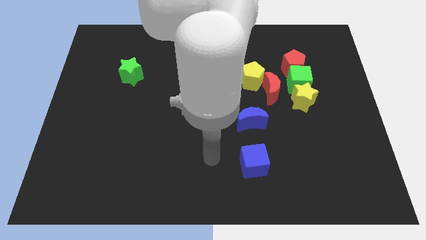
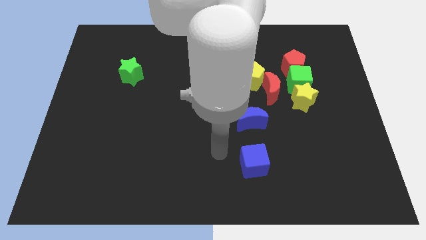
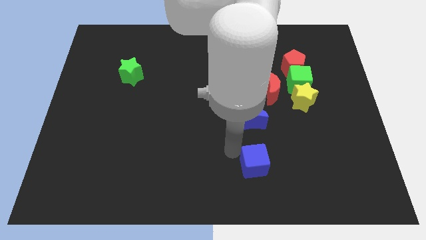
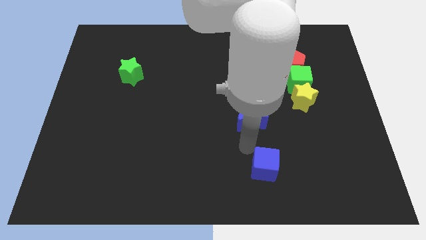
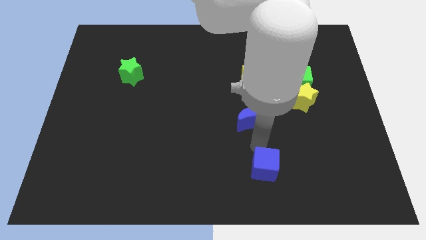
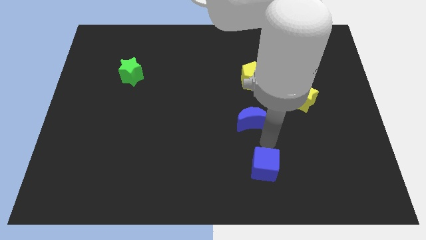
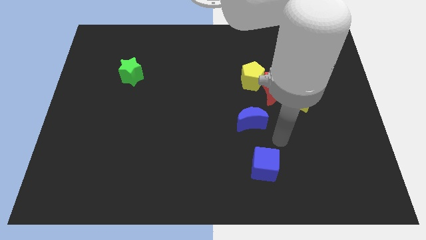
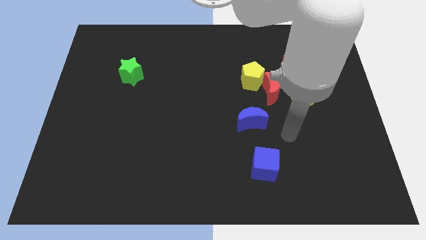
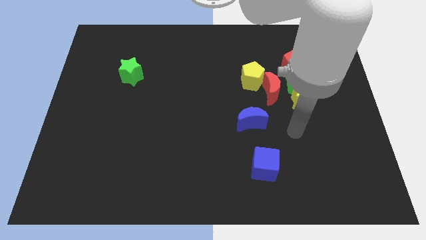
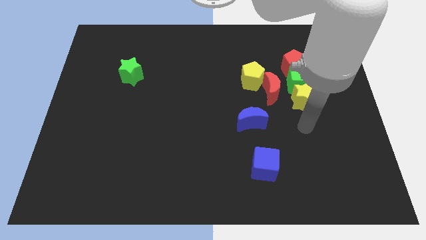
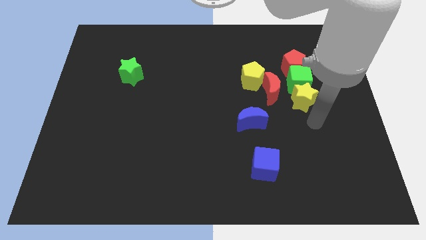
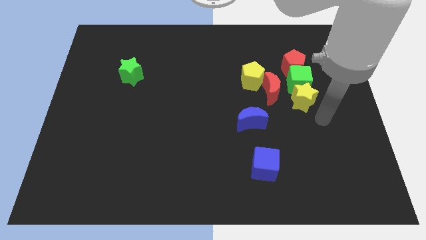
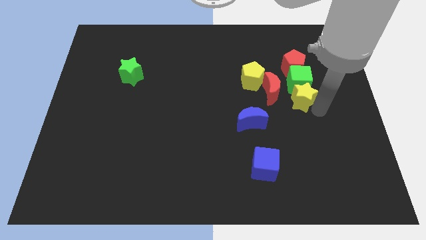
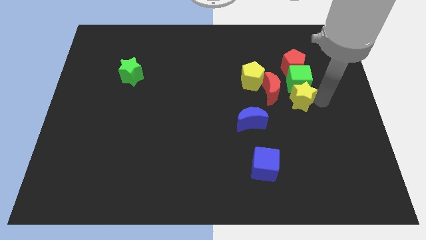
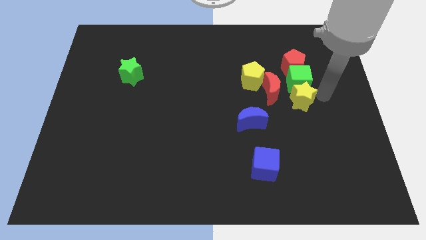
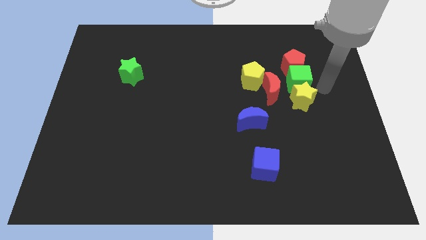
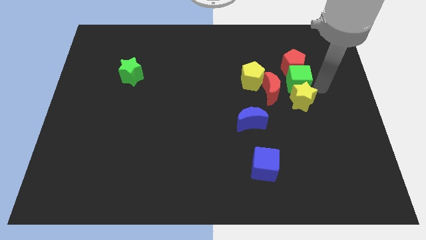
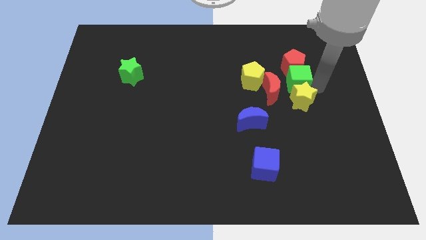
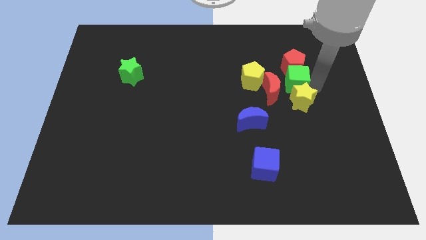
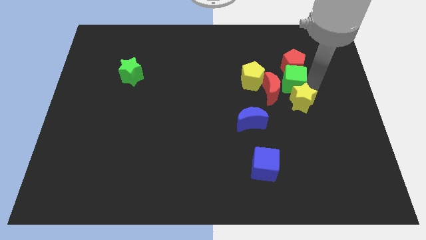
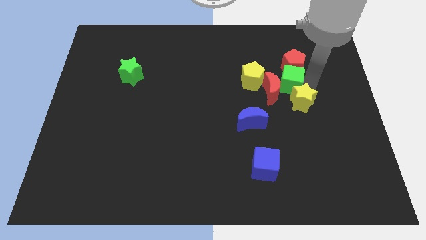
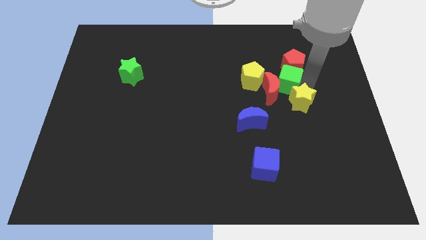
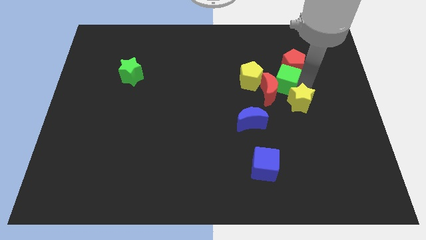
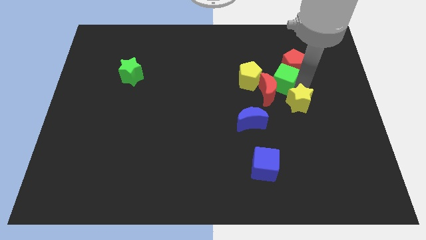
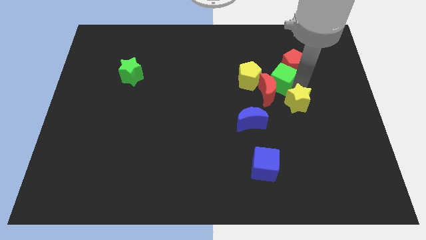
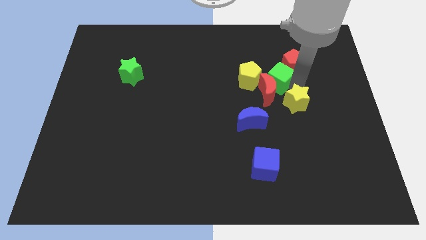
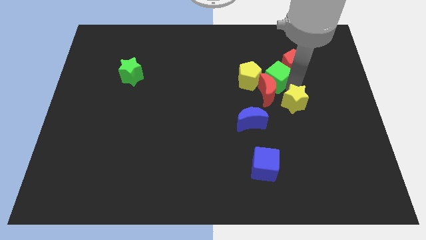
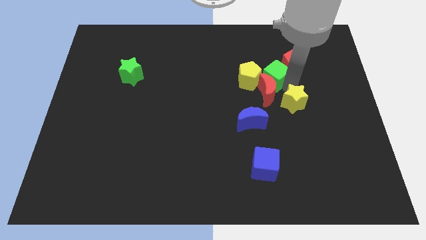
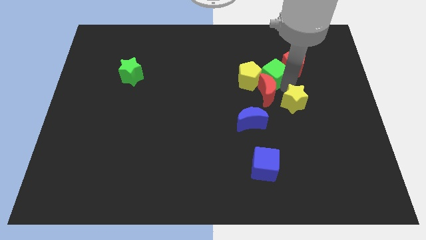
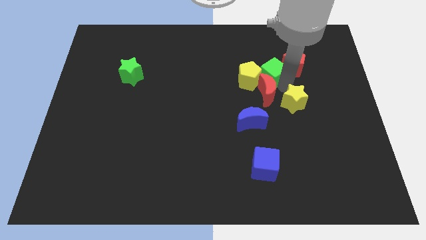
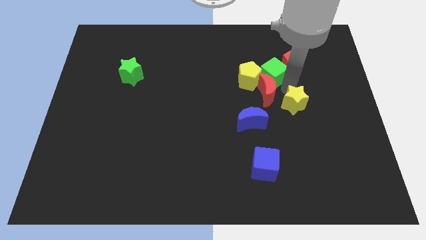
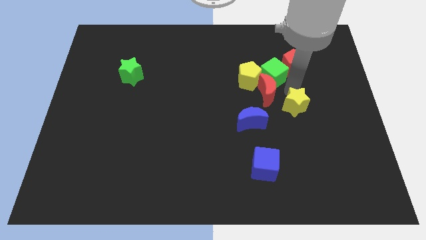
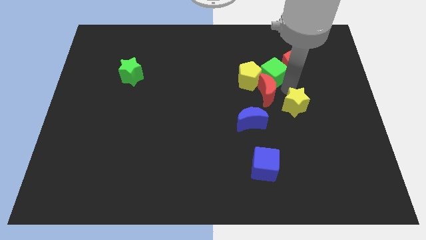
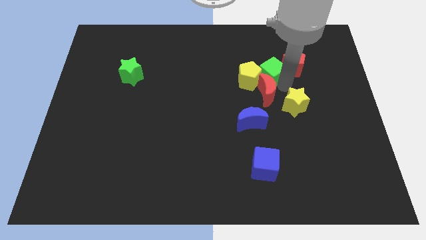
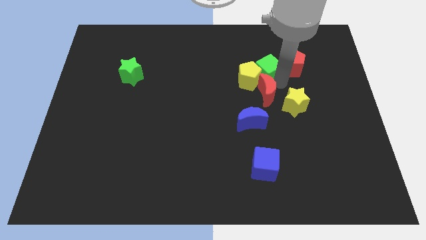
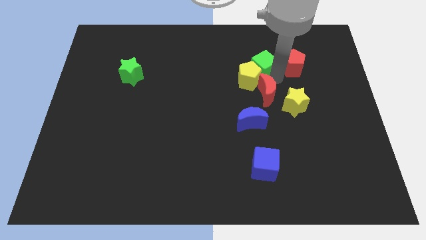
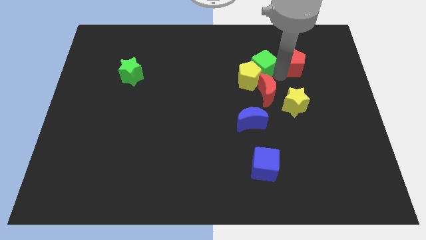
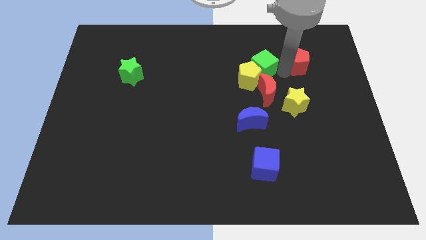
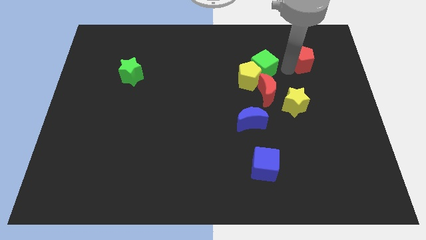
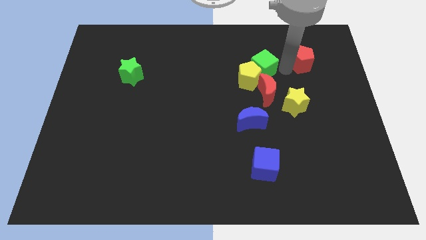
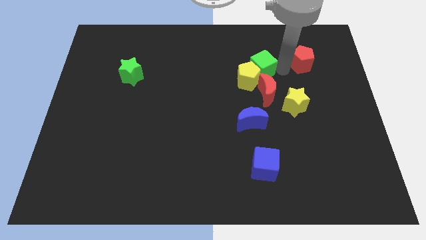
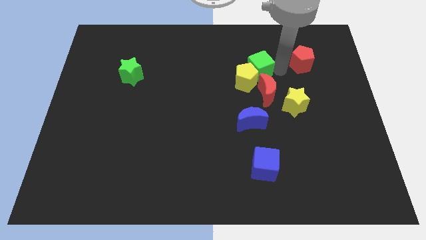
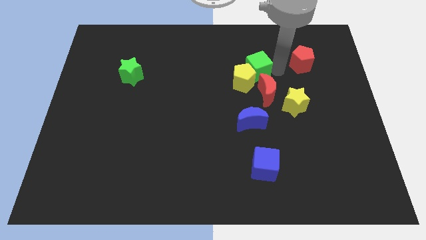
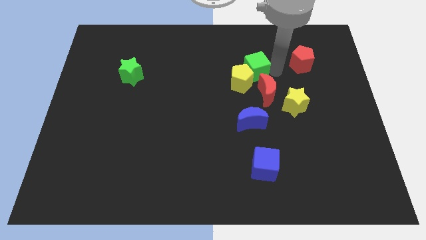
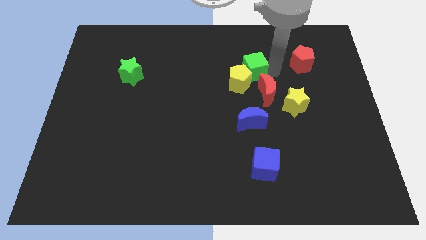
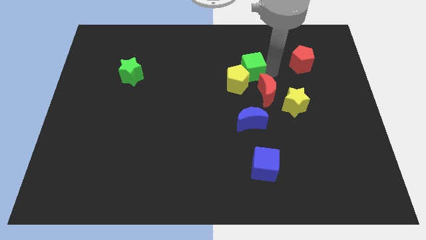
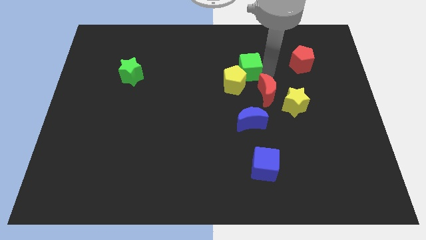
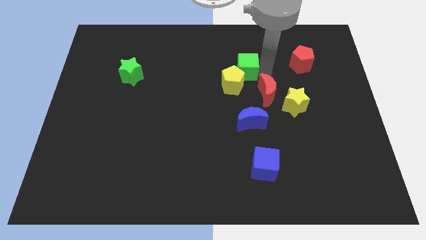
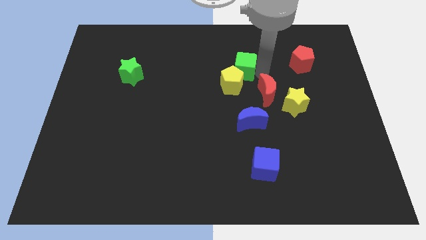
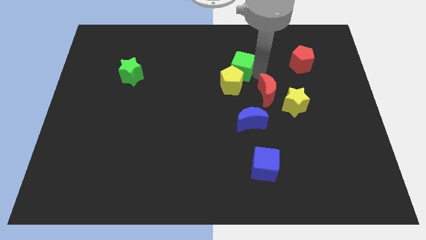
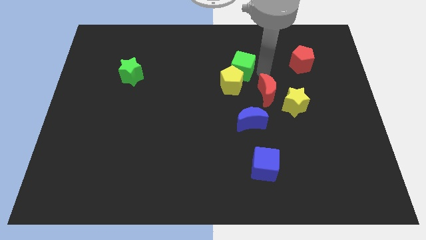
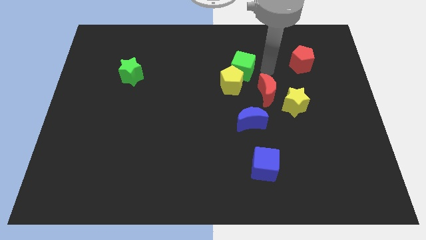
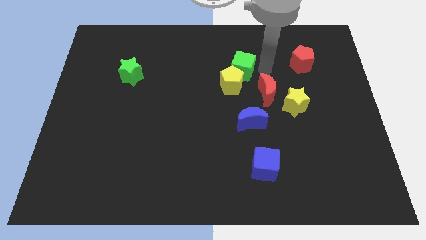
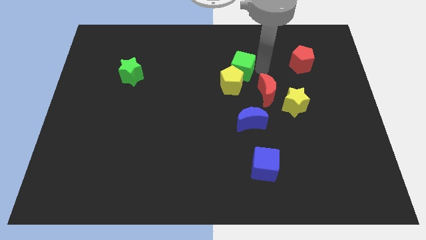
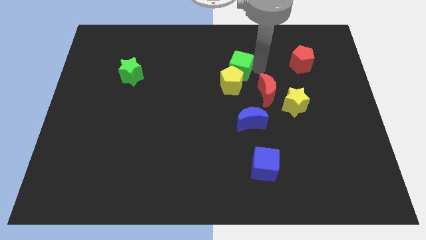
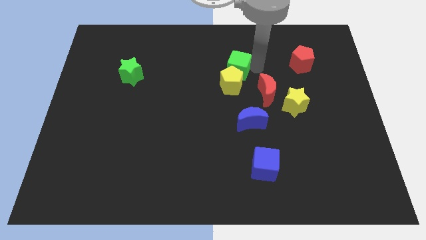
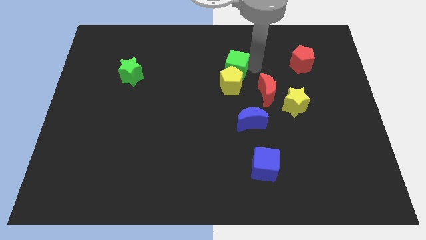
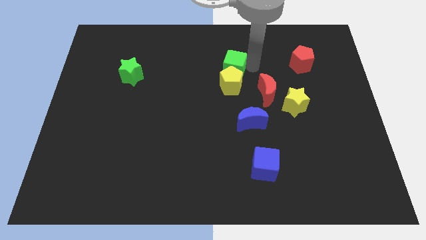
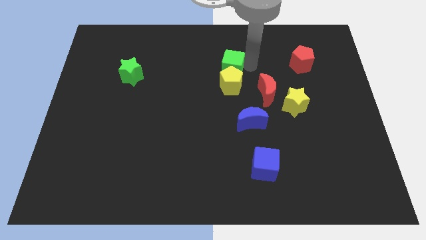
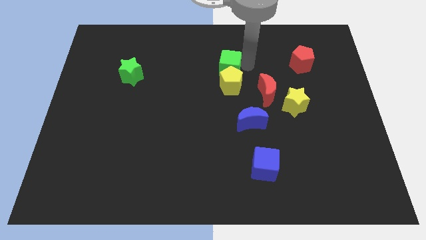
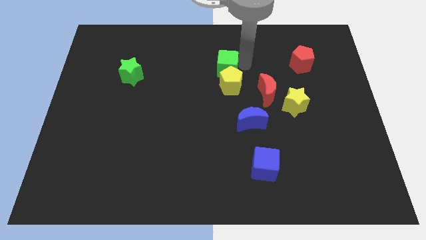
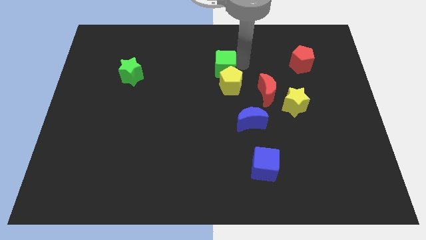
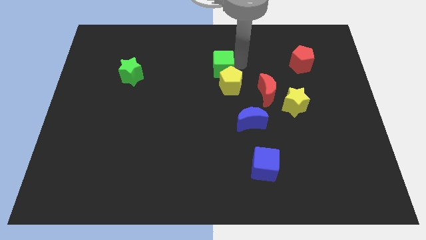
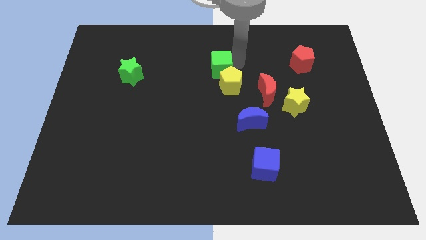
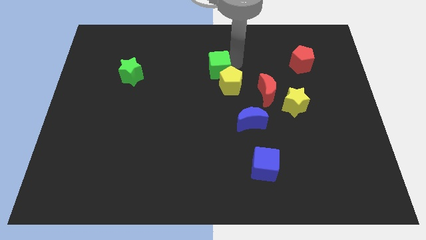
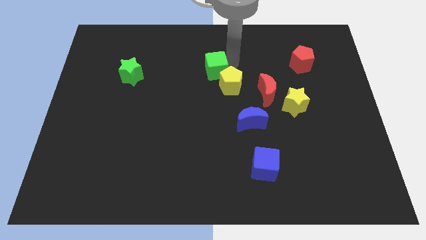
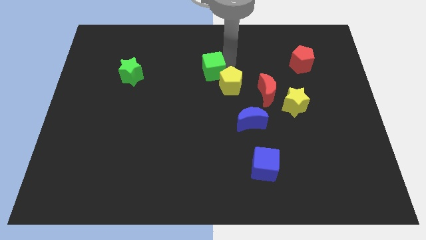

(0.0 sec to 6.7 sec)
move the green cube left

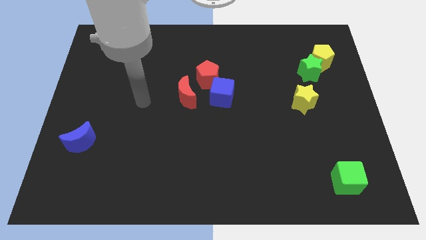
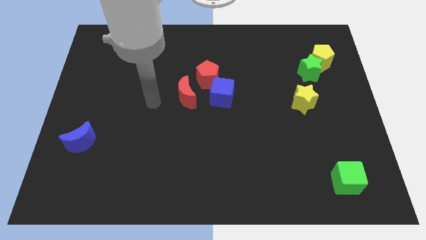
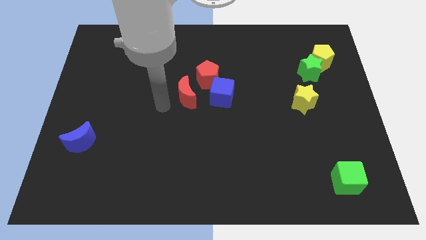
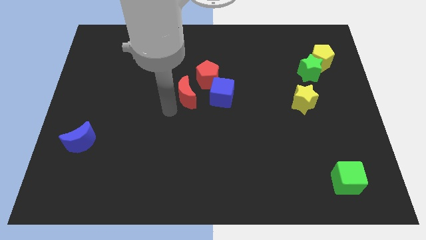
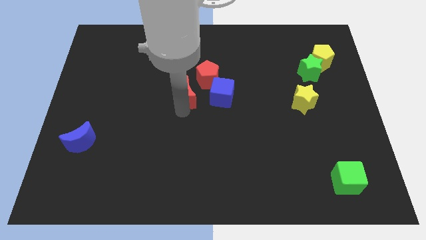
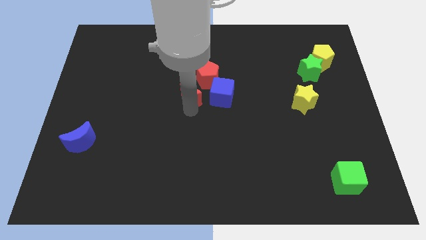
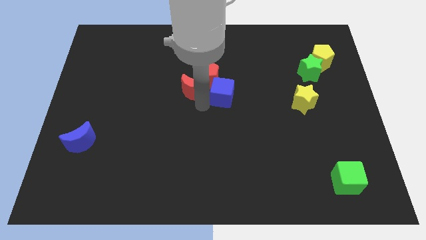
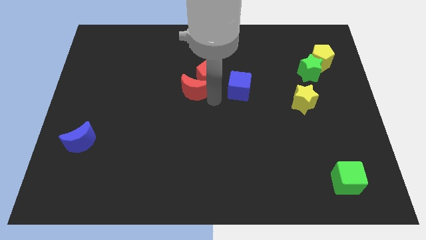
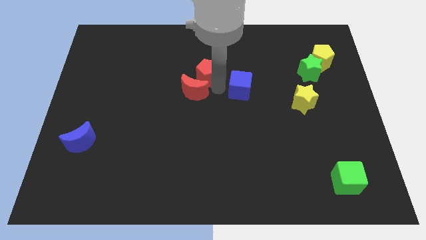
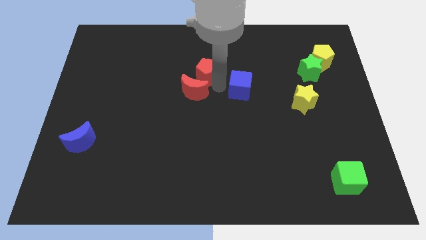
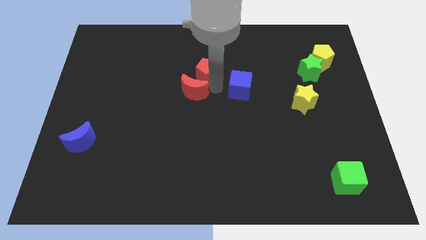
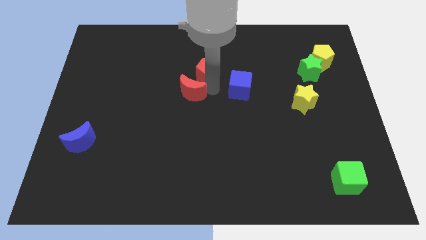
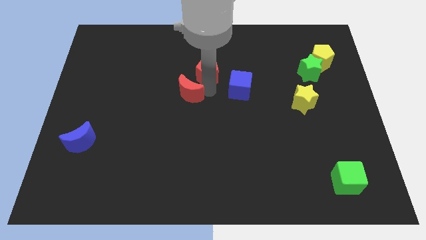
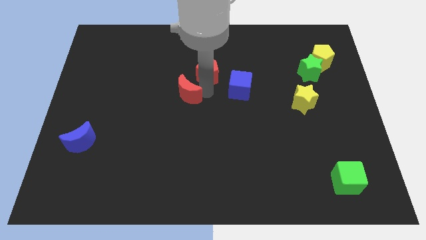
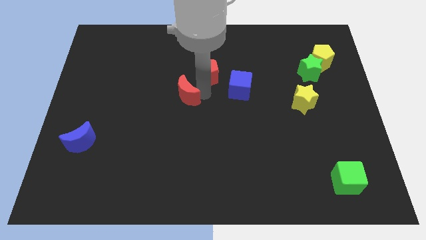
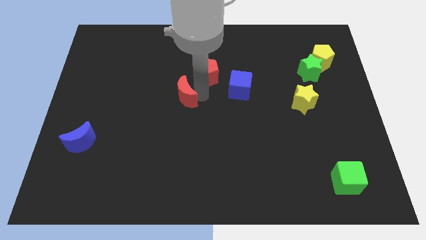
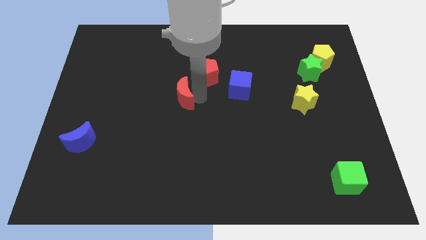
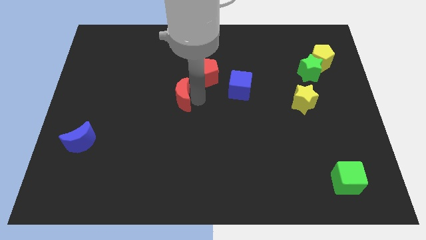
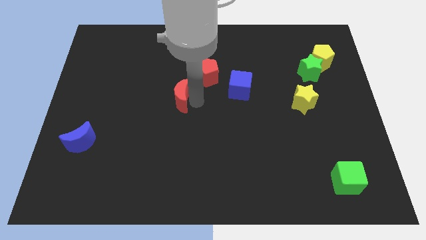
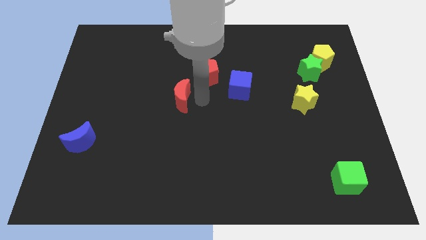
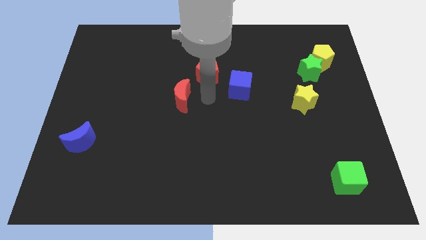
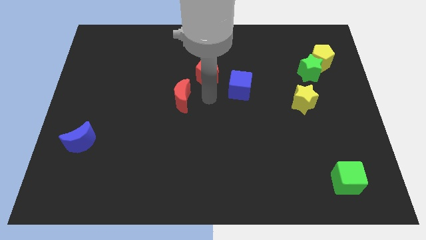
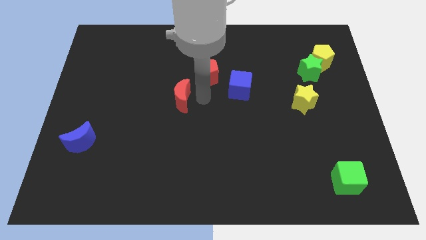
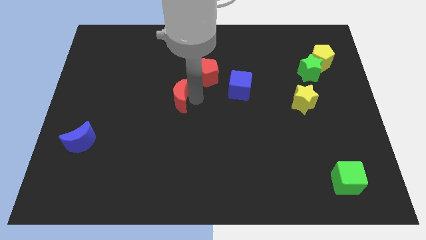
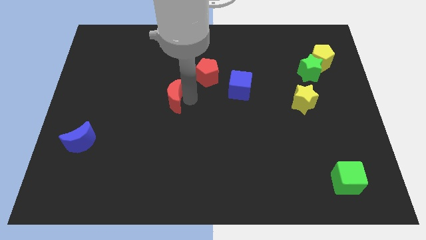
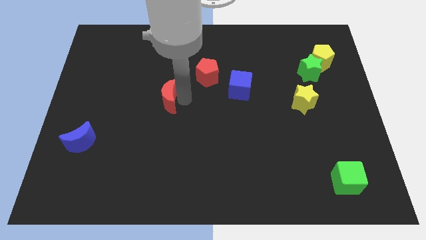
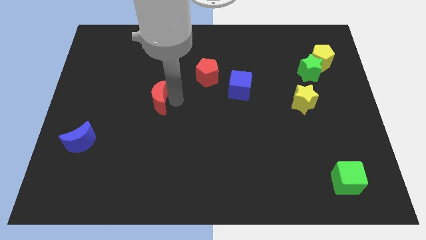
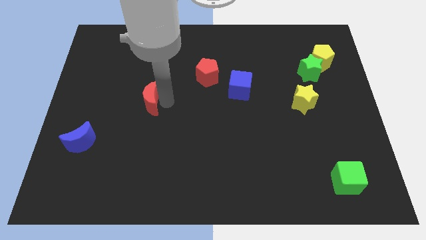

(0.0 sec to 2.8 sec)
push the red moon left a little
